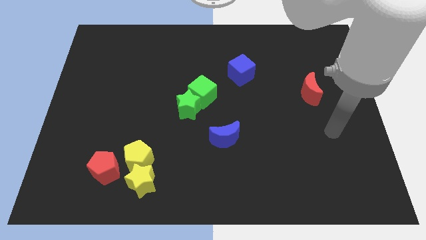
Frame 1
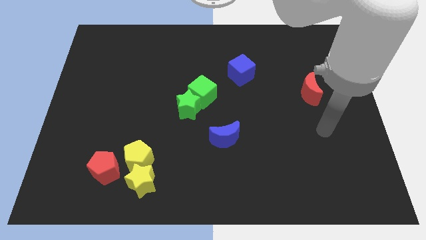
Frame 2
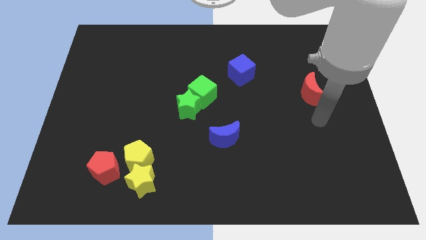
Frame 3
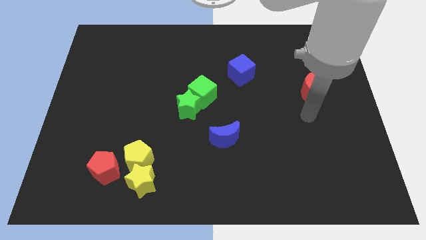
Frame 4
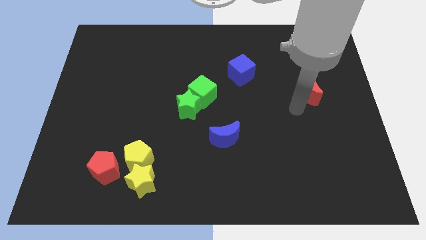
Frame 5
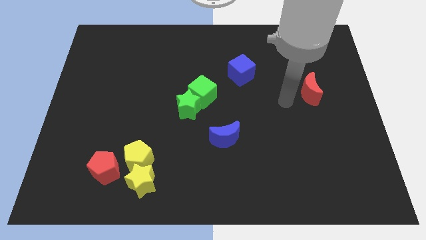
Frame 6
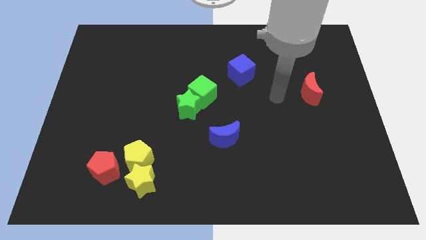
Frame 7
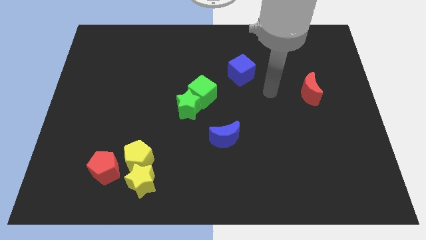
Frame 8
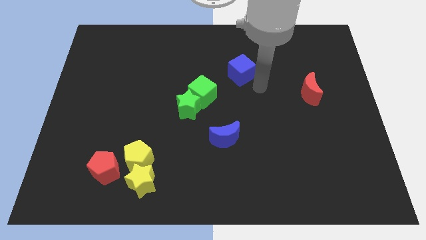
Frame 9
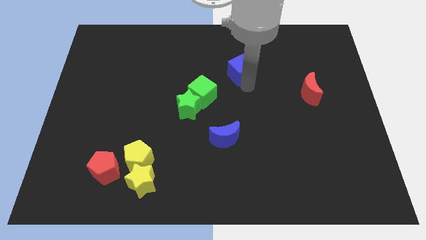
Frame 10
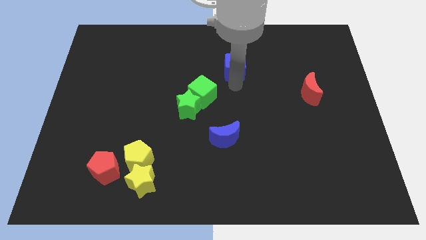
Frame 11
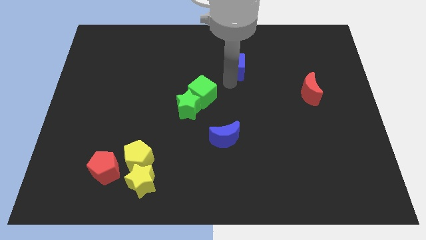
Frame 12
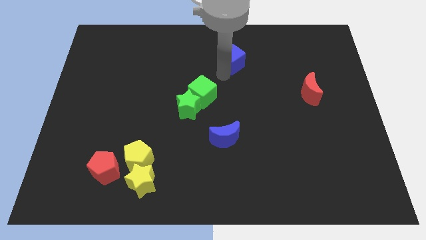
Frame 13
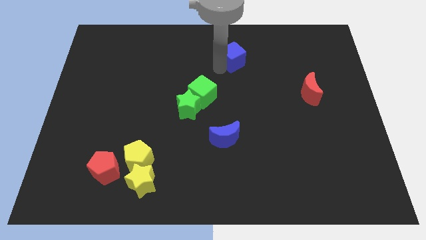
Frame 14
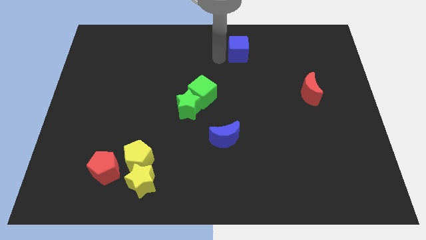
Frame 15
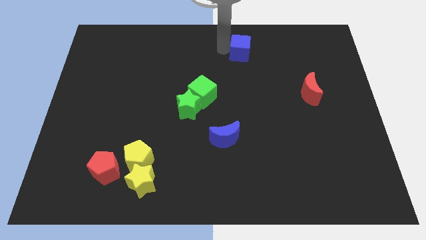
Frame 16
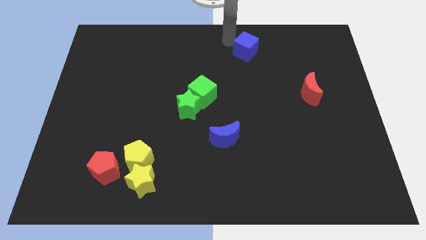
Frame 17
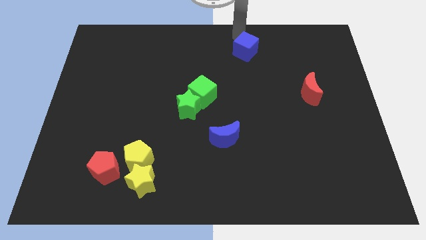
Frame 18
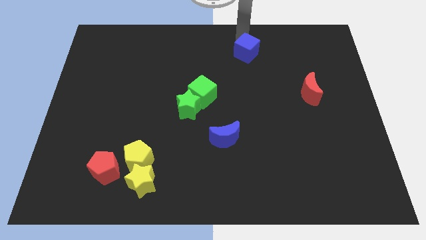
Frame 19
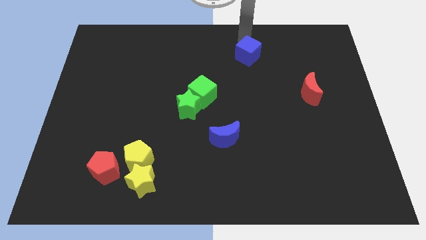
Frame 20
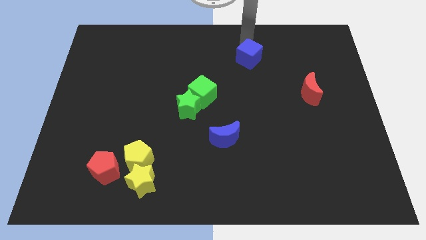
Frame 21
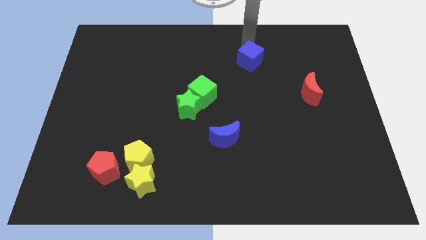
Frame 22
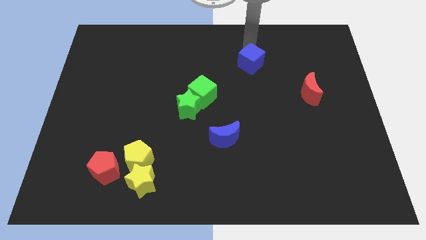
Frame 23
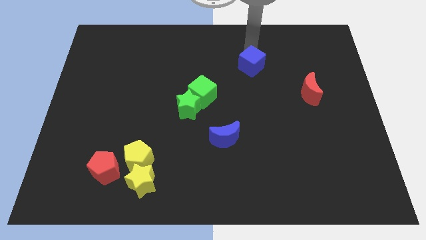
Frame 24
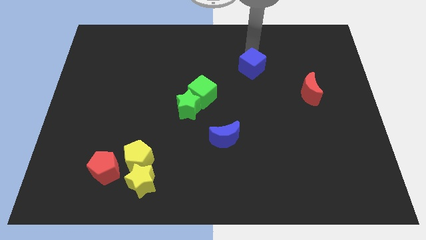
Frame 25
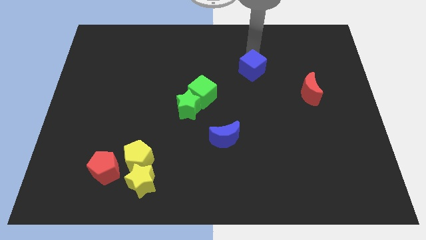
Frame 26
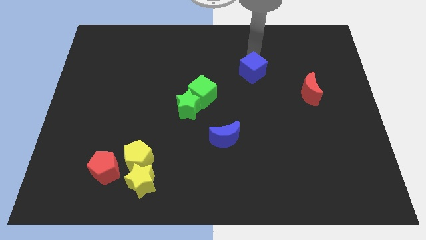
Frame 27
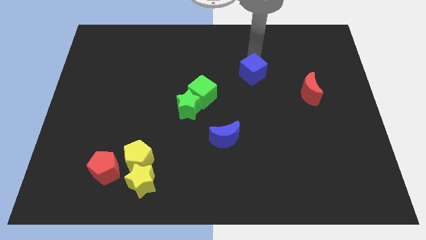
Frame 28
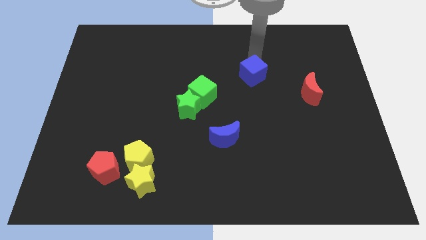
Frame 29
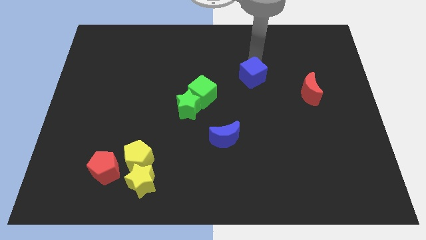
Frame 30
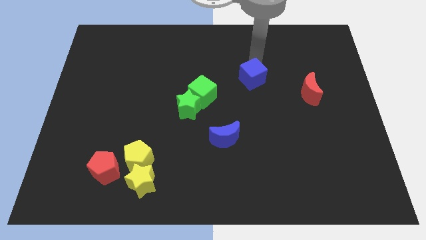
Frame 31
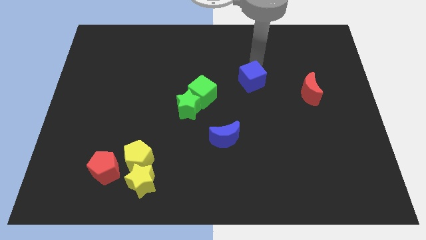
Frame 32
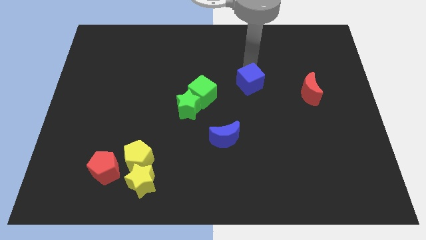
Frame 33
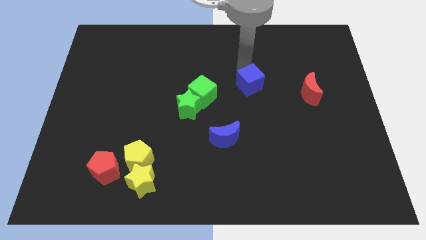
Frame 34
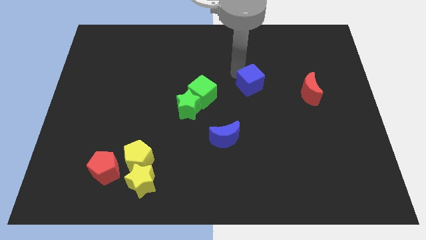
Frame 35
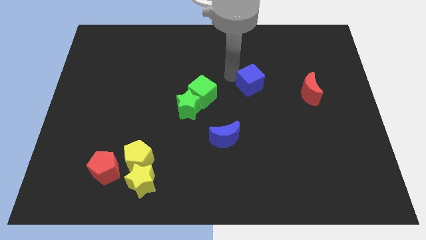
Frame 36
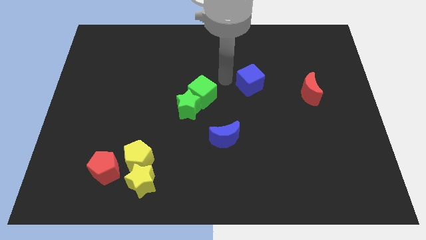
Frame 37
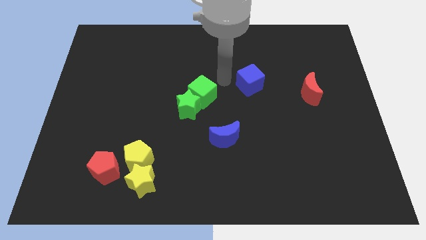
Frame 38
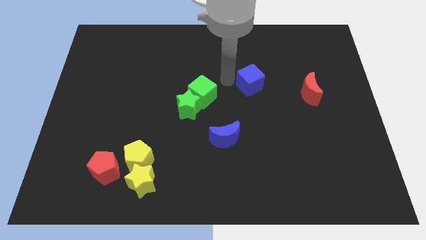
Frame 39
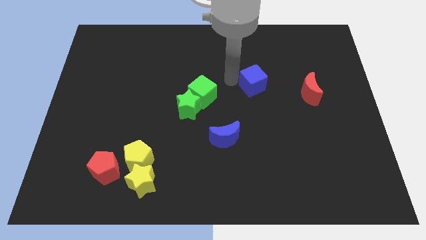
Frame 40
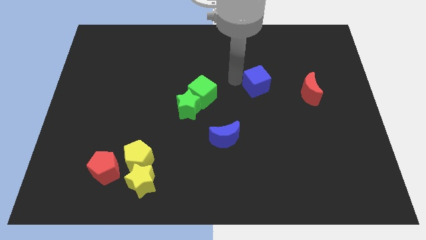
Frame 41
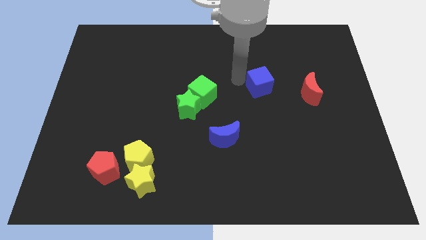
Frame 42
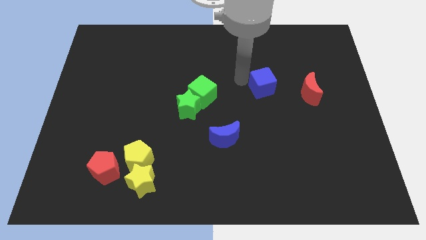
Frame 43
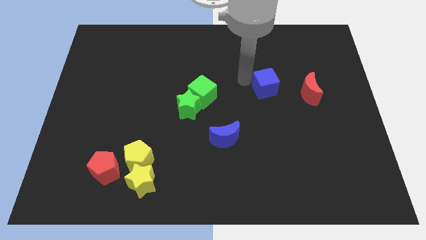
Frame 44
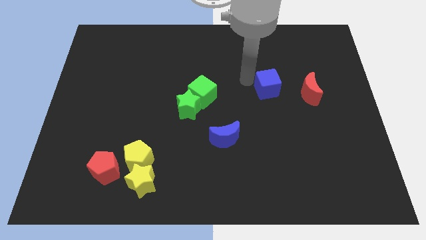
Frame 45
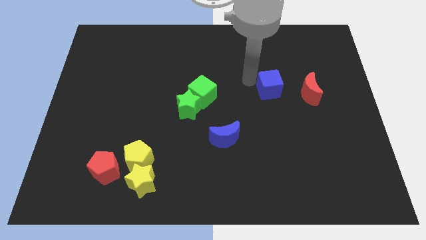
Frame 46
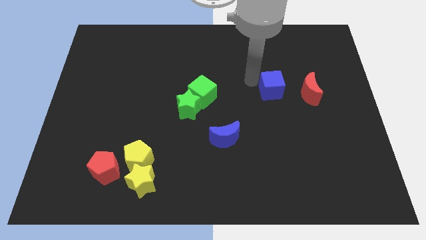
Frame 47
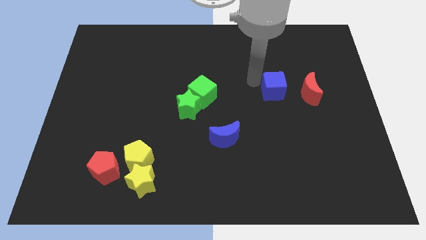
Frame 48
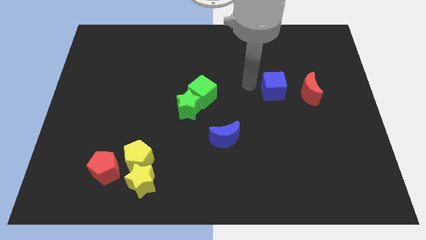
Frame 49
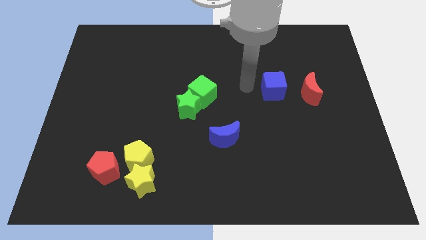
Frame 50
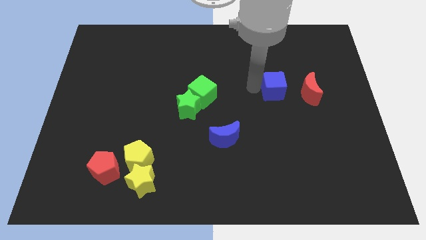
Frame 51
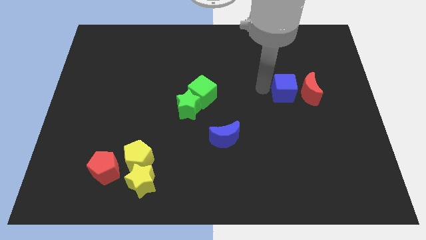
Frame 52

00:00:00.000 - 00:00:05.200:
move the blue cube towards the red moon

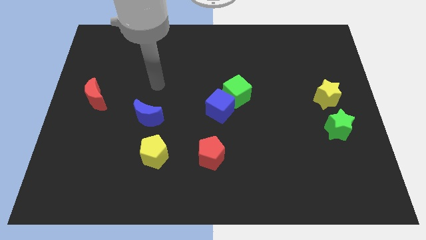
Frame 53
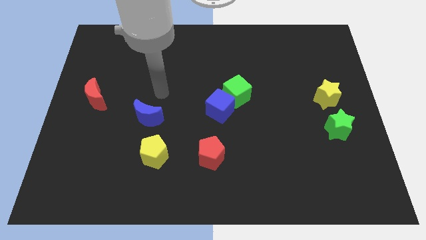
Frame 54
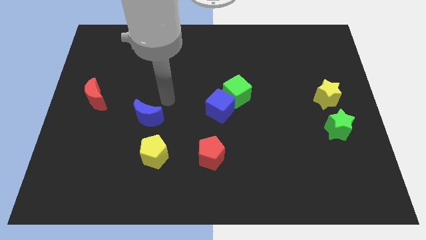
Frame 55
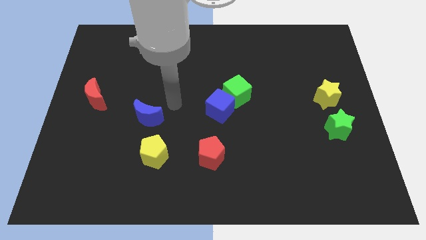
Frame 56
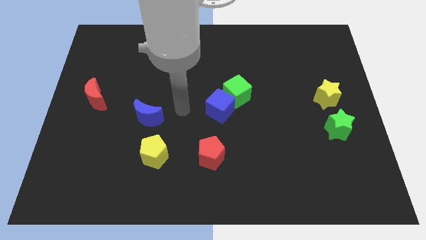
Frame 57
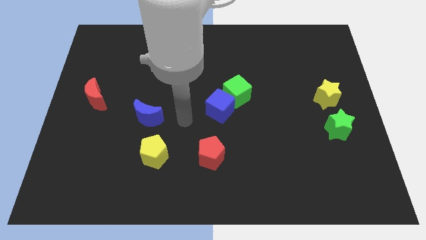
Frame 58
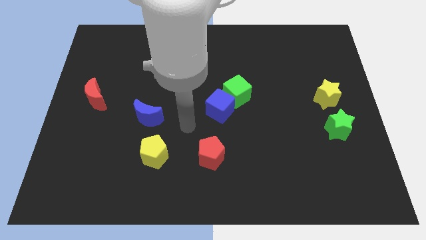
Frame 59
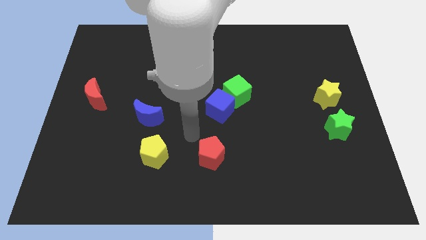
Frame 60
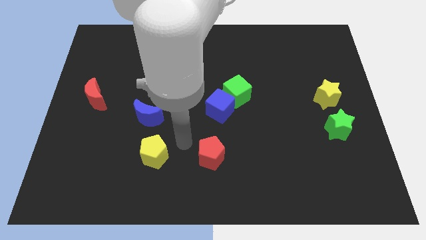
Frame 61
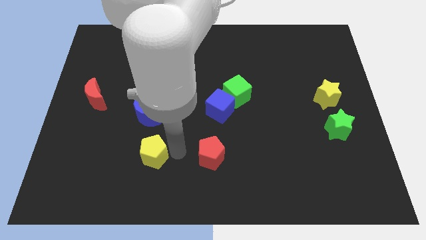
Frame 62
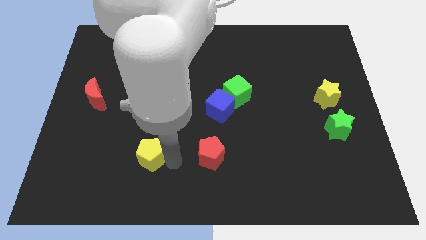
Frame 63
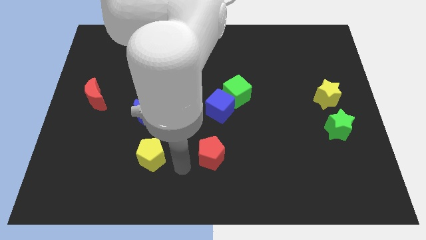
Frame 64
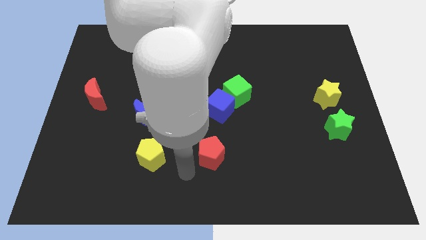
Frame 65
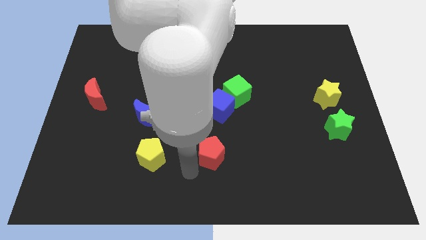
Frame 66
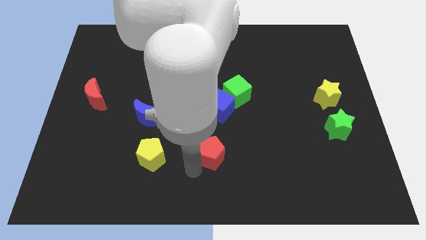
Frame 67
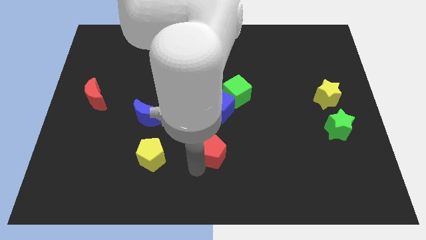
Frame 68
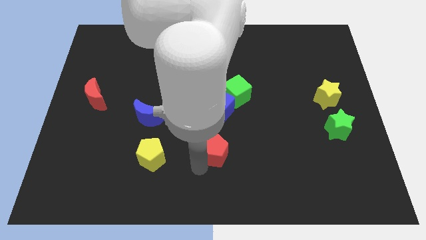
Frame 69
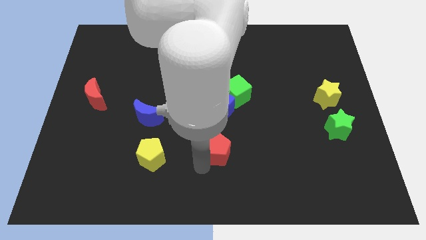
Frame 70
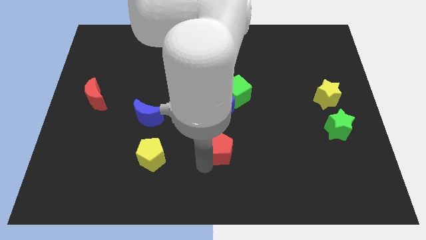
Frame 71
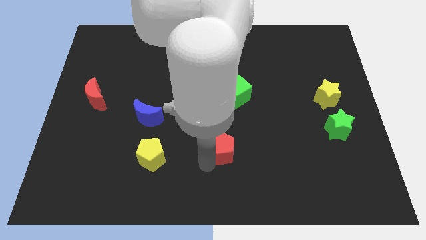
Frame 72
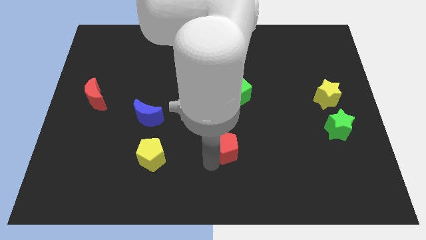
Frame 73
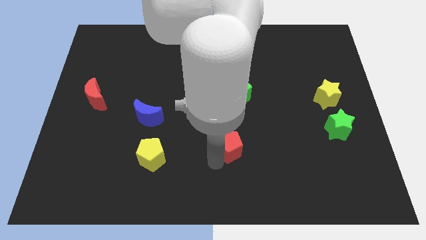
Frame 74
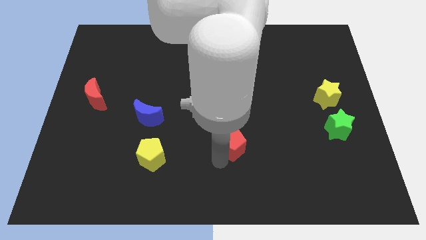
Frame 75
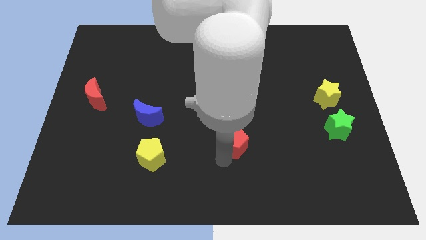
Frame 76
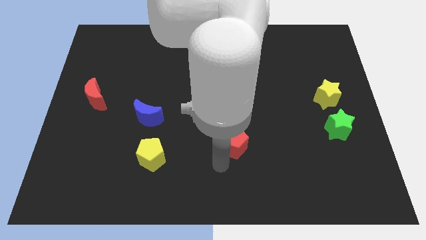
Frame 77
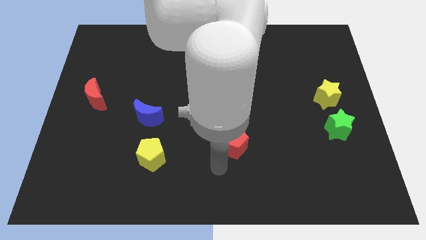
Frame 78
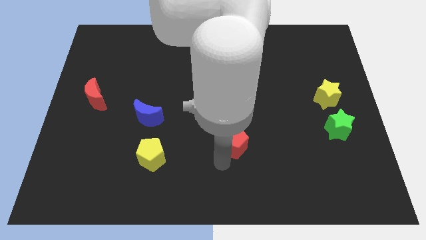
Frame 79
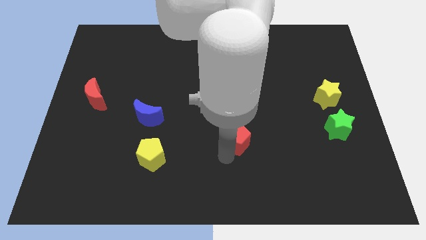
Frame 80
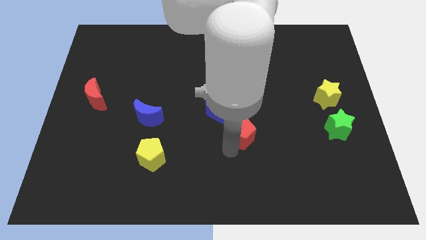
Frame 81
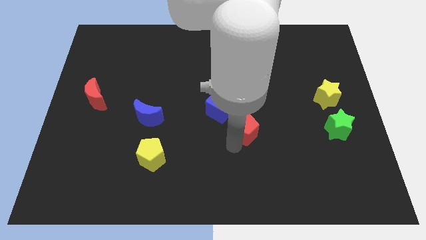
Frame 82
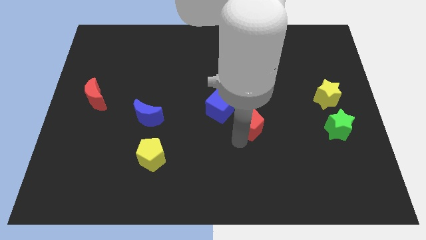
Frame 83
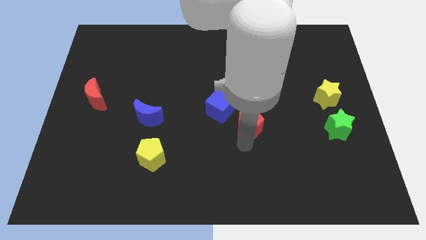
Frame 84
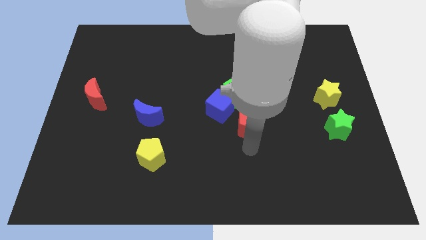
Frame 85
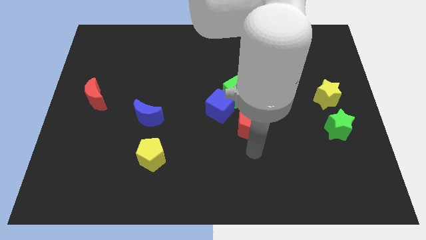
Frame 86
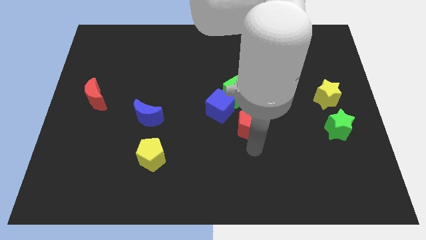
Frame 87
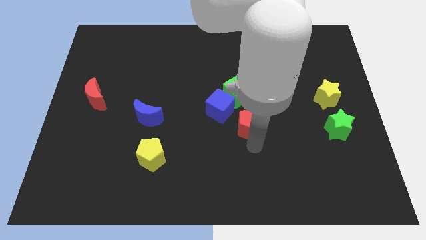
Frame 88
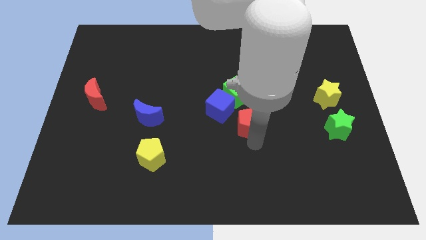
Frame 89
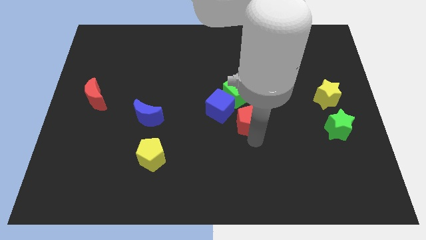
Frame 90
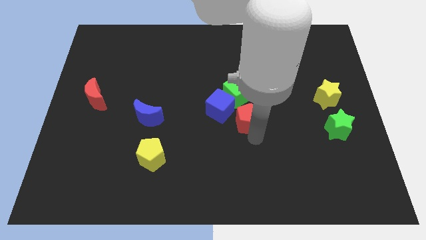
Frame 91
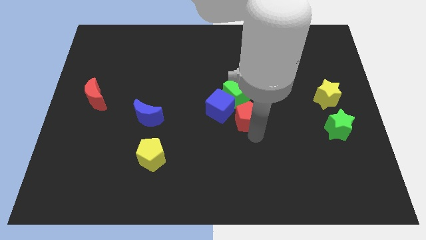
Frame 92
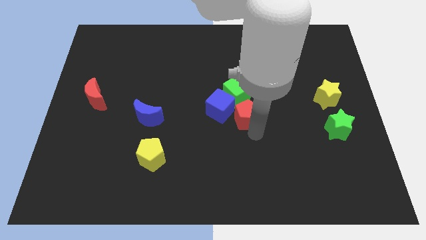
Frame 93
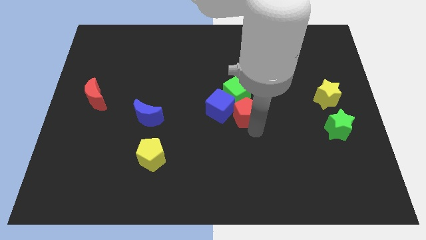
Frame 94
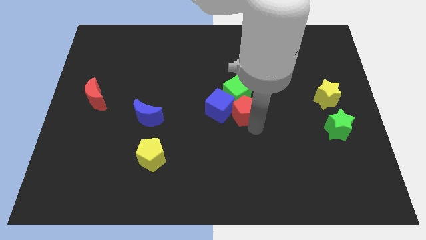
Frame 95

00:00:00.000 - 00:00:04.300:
move the red pentagon next to the green cube
